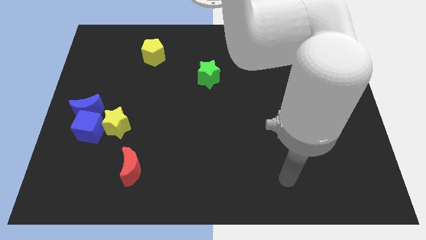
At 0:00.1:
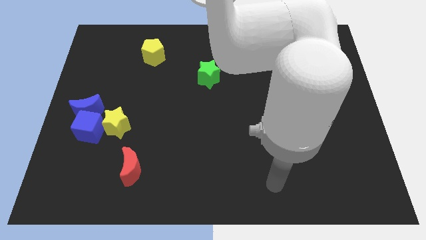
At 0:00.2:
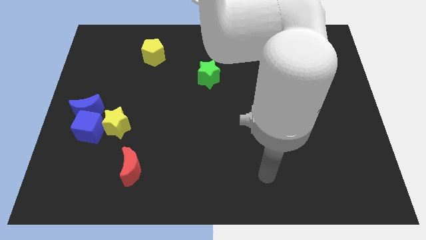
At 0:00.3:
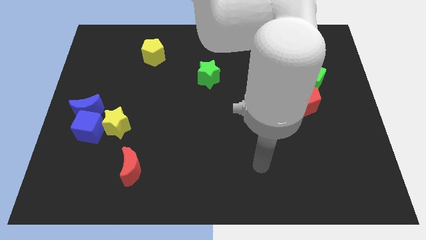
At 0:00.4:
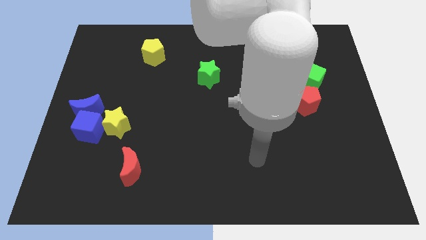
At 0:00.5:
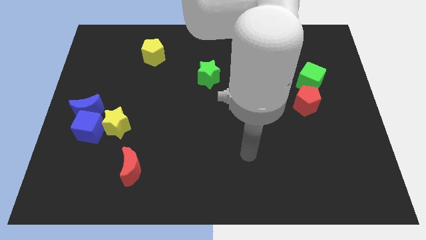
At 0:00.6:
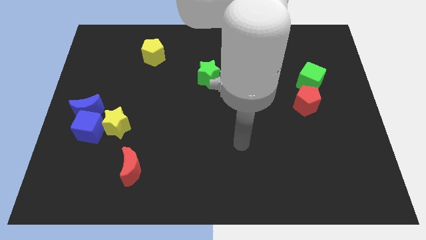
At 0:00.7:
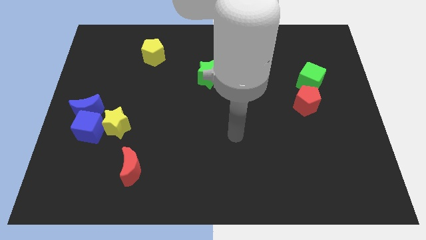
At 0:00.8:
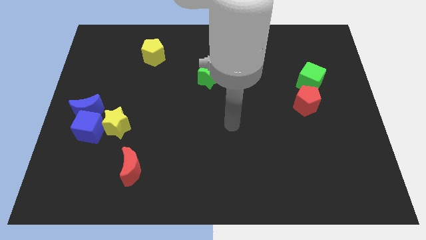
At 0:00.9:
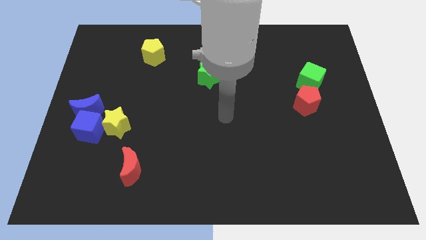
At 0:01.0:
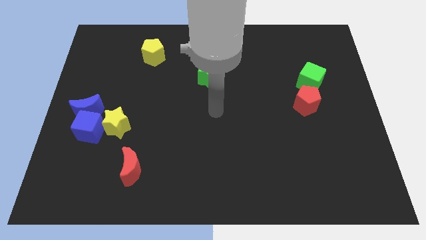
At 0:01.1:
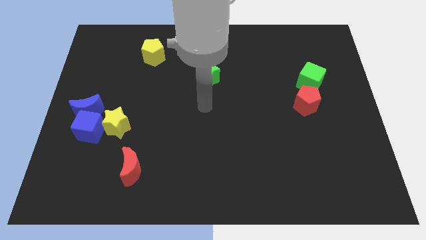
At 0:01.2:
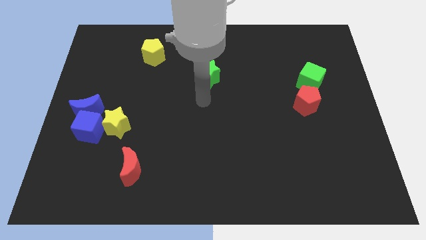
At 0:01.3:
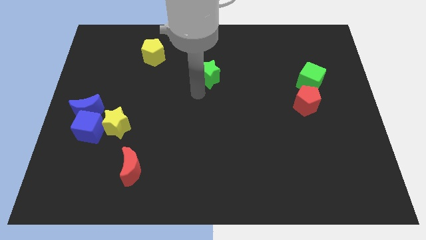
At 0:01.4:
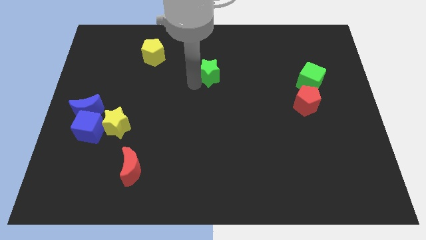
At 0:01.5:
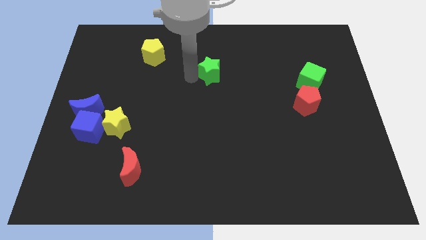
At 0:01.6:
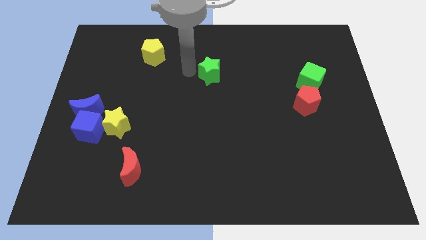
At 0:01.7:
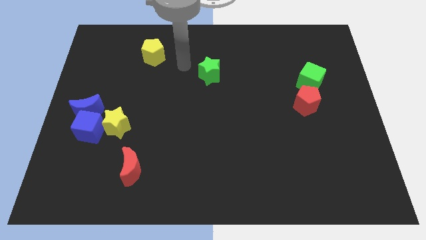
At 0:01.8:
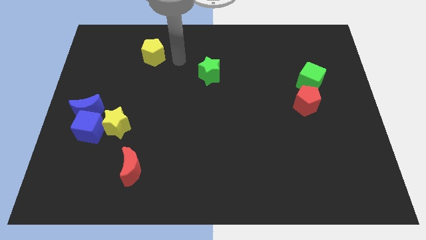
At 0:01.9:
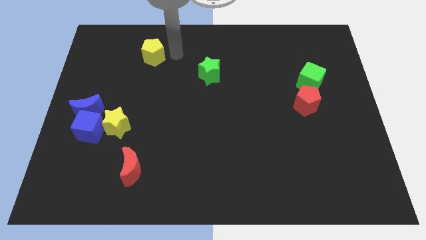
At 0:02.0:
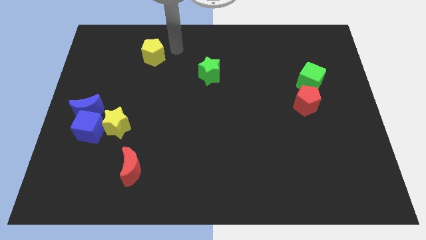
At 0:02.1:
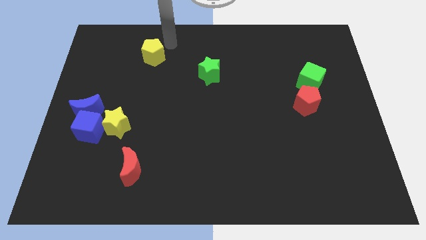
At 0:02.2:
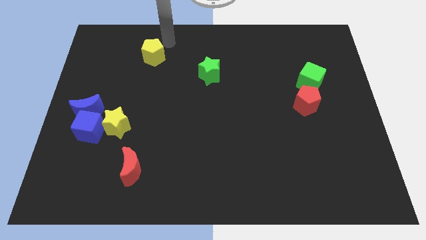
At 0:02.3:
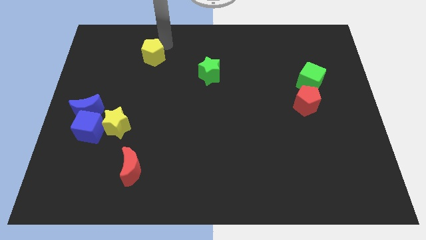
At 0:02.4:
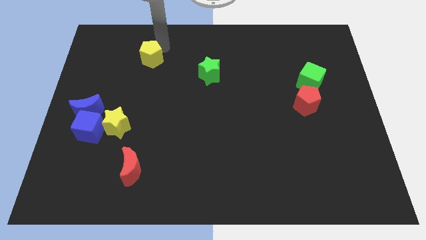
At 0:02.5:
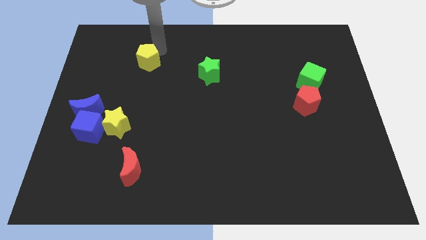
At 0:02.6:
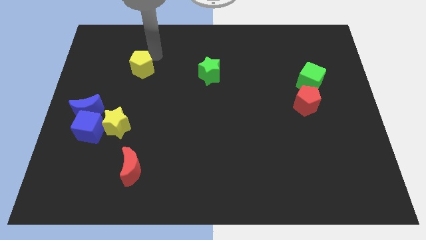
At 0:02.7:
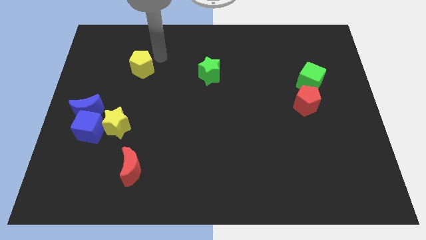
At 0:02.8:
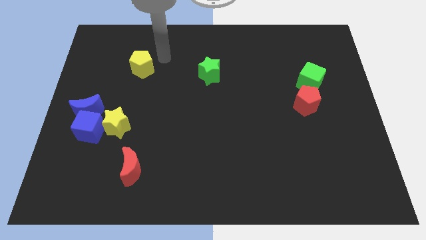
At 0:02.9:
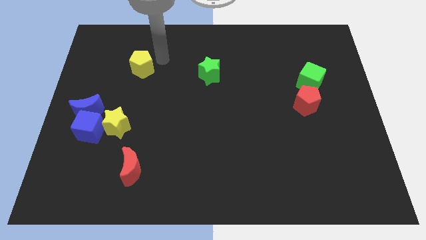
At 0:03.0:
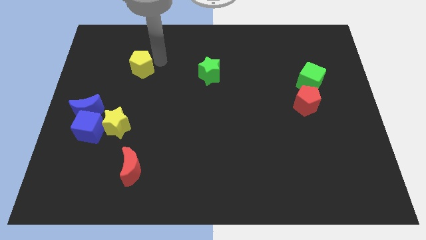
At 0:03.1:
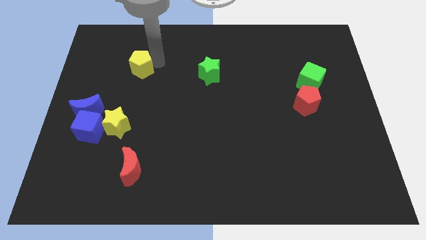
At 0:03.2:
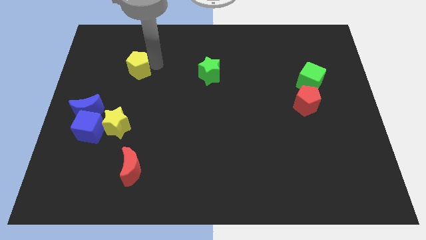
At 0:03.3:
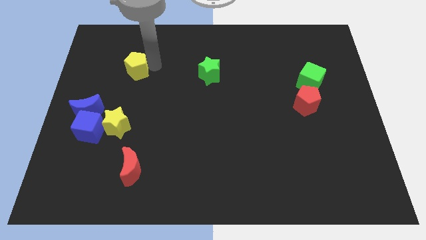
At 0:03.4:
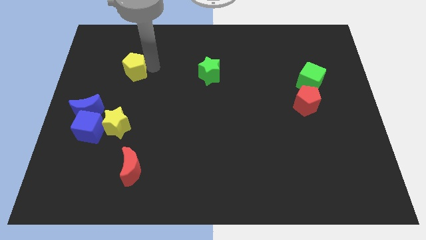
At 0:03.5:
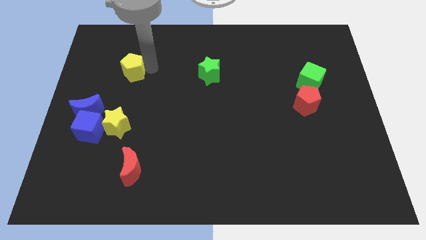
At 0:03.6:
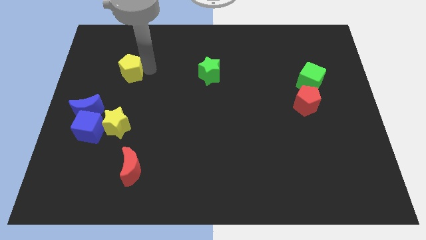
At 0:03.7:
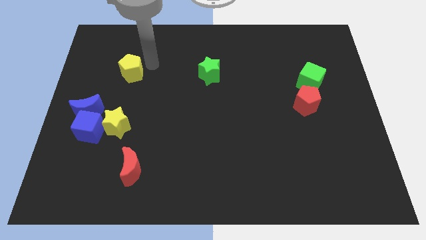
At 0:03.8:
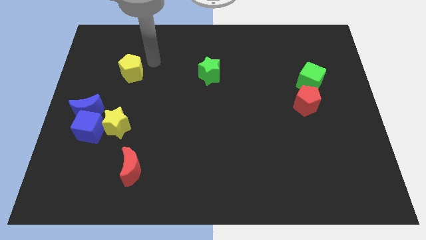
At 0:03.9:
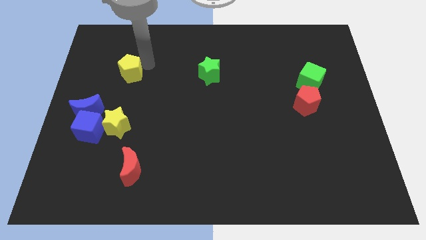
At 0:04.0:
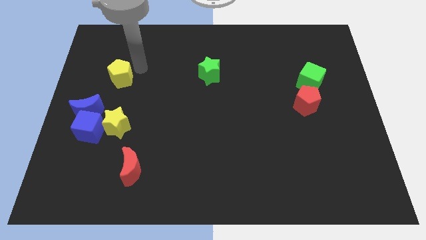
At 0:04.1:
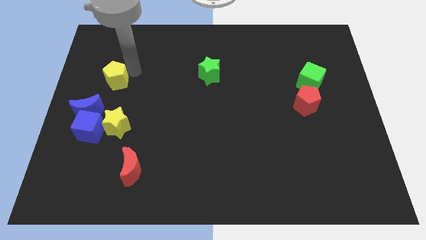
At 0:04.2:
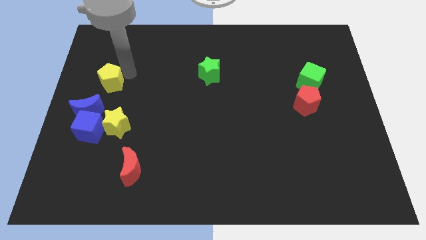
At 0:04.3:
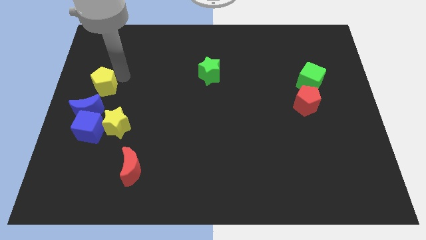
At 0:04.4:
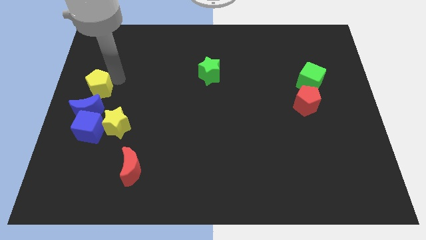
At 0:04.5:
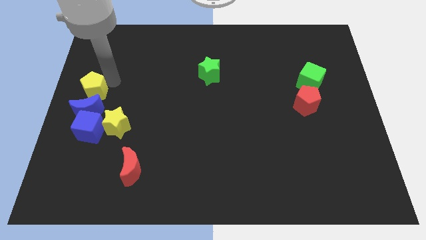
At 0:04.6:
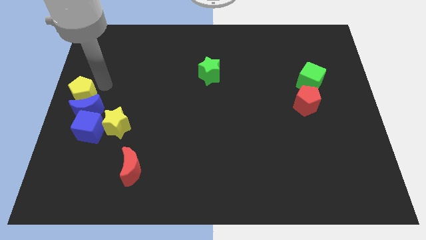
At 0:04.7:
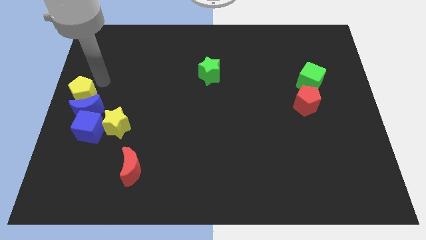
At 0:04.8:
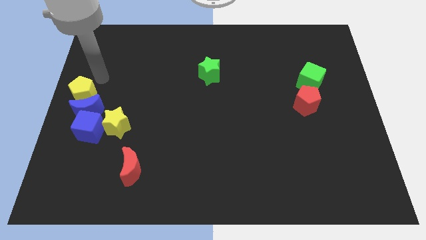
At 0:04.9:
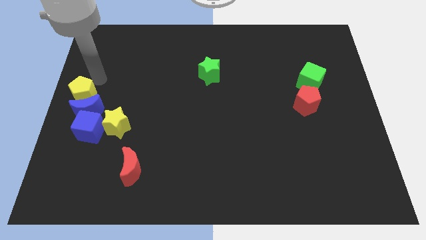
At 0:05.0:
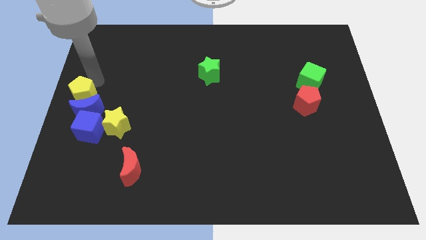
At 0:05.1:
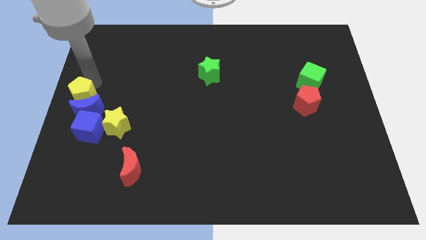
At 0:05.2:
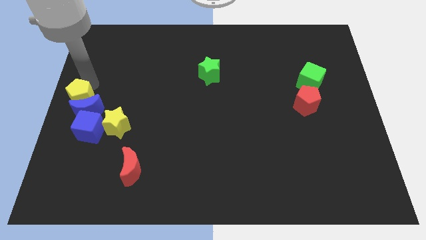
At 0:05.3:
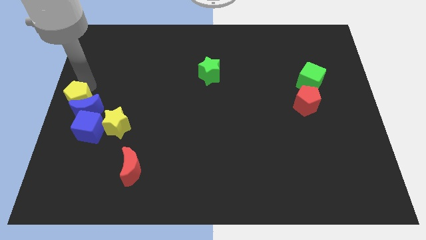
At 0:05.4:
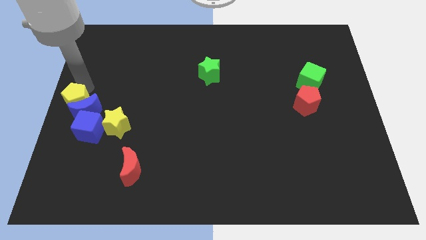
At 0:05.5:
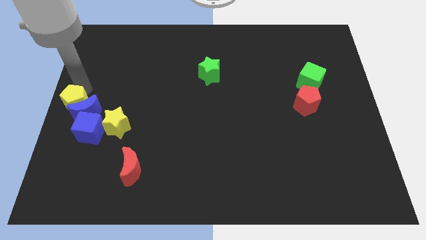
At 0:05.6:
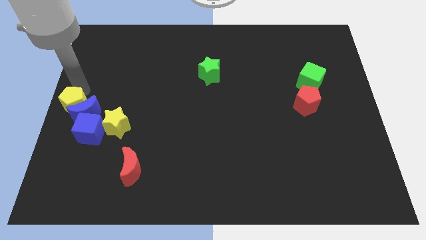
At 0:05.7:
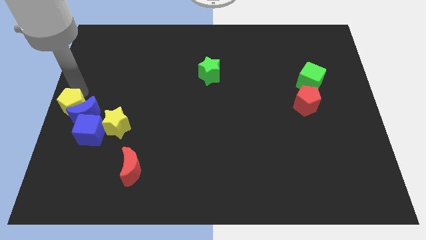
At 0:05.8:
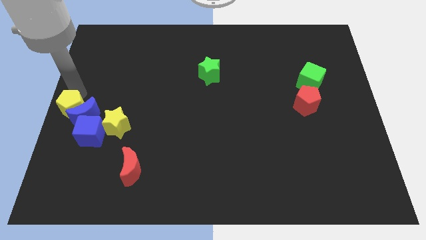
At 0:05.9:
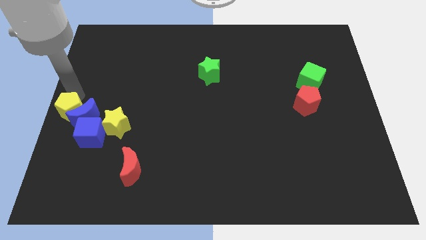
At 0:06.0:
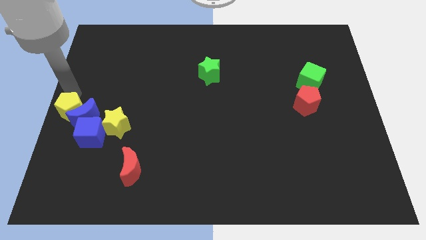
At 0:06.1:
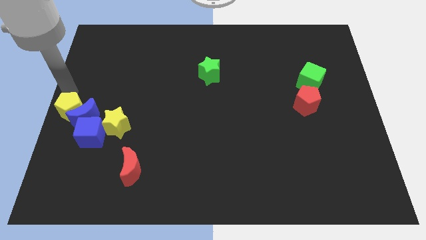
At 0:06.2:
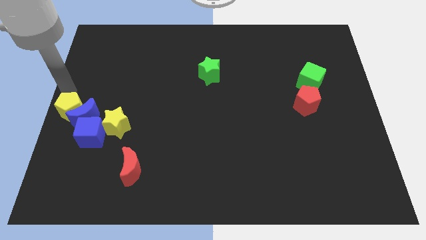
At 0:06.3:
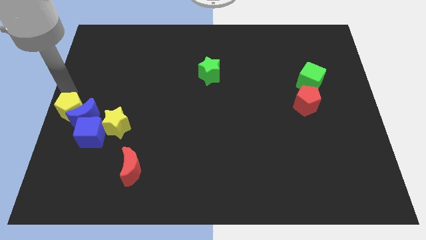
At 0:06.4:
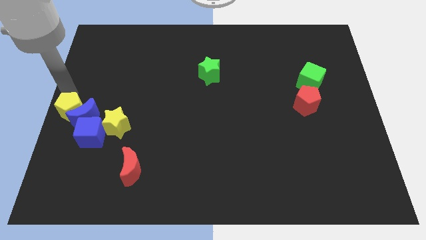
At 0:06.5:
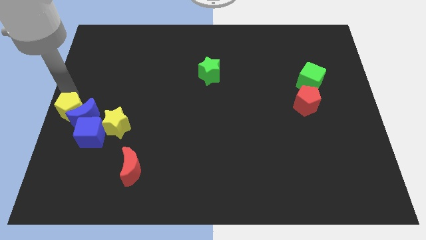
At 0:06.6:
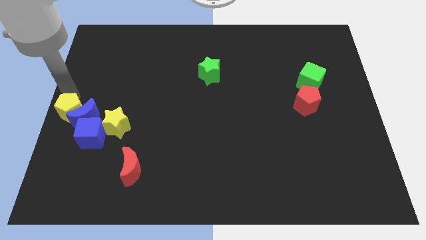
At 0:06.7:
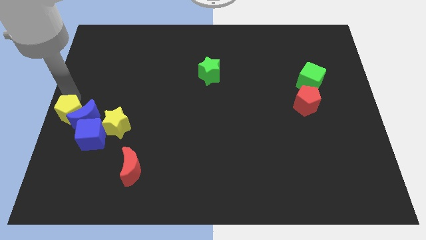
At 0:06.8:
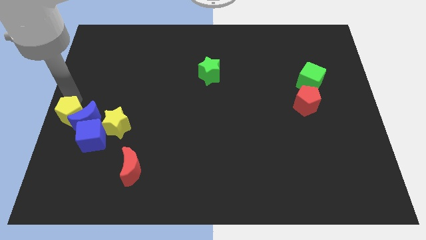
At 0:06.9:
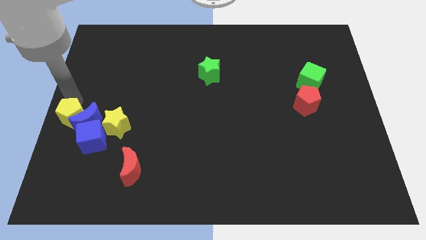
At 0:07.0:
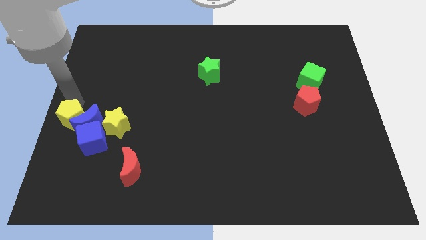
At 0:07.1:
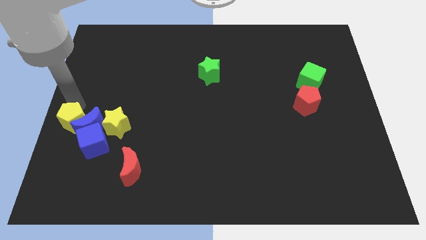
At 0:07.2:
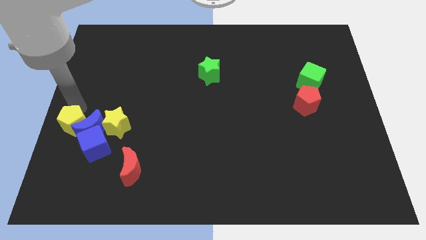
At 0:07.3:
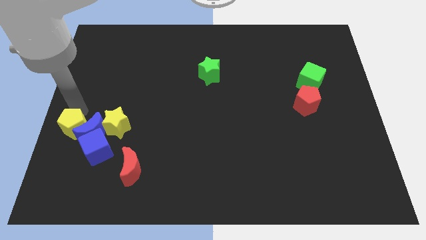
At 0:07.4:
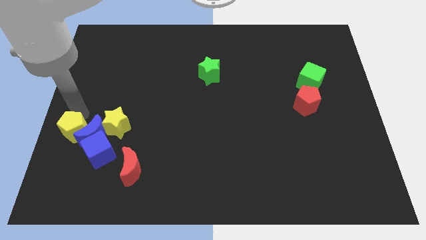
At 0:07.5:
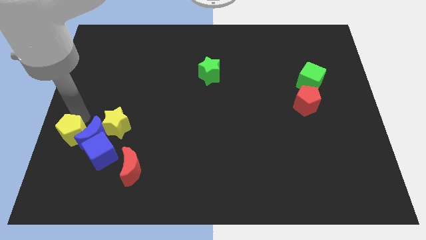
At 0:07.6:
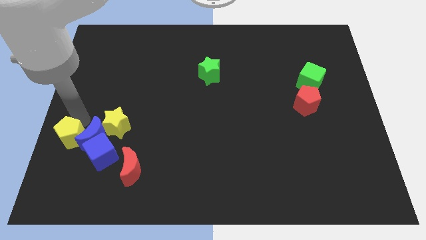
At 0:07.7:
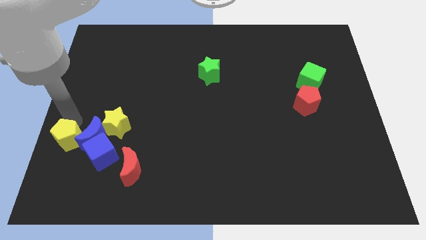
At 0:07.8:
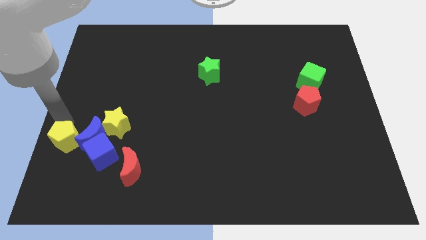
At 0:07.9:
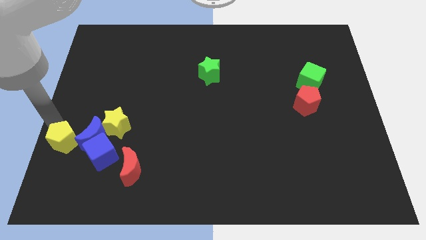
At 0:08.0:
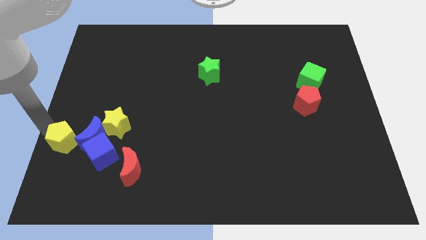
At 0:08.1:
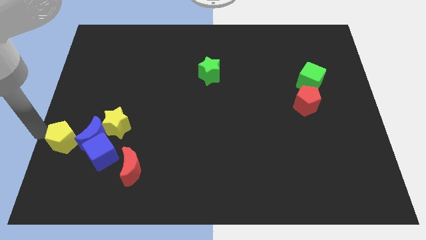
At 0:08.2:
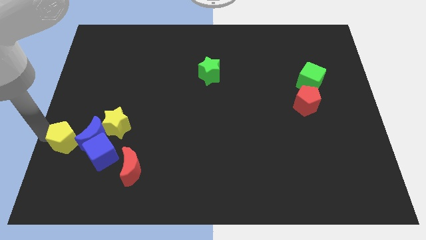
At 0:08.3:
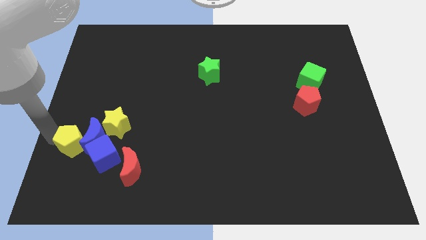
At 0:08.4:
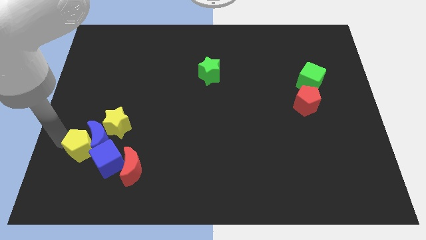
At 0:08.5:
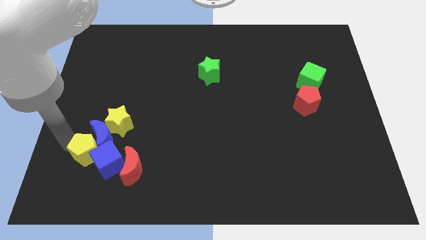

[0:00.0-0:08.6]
push the yellow pentagon to the blue cube
